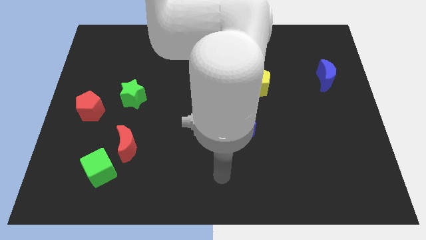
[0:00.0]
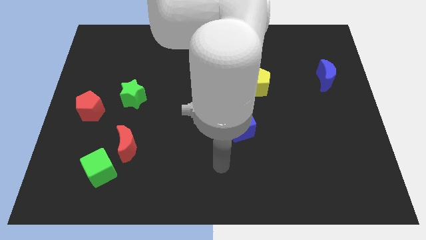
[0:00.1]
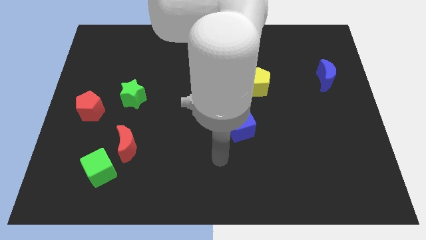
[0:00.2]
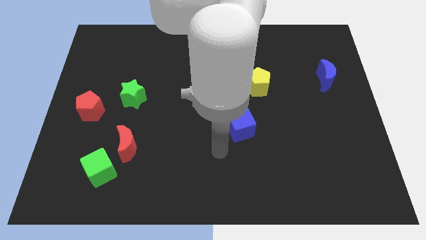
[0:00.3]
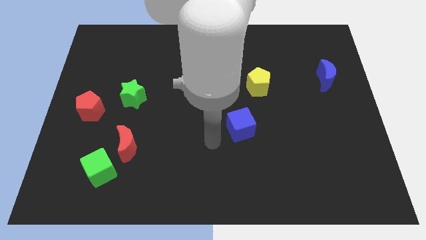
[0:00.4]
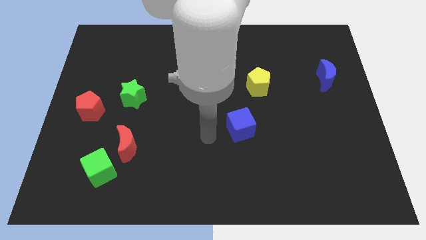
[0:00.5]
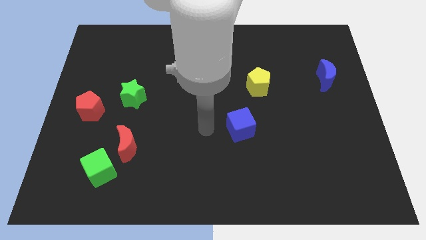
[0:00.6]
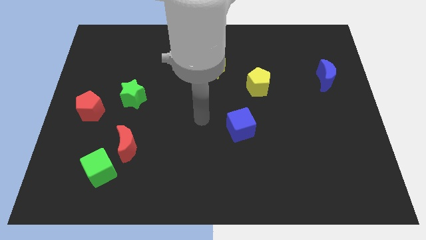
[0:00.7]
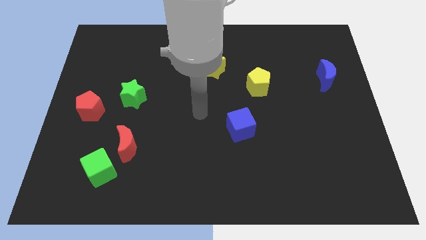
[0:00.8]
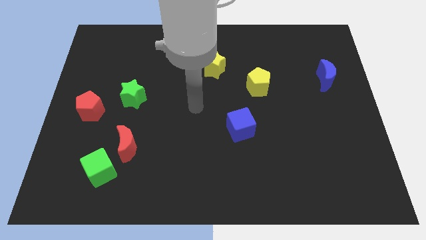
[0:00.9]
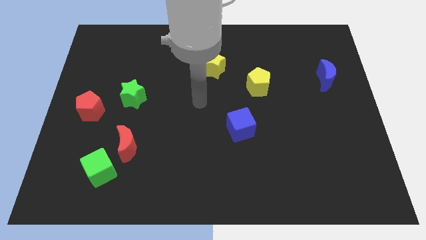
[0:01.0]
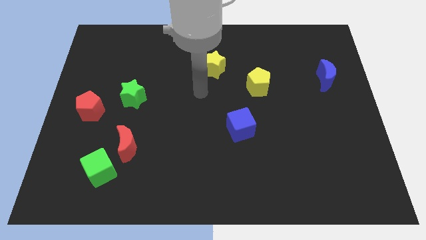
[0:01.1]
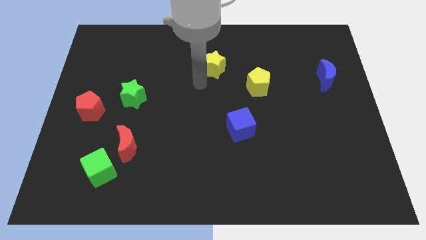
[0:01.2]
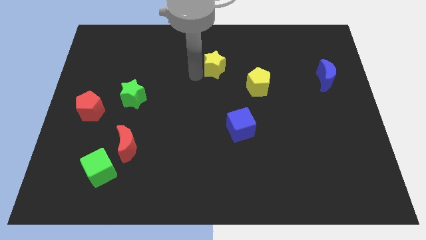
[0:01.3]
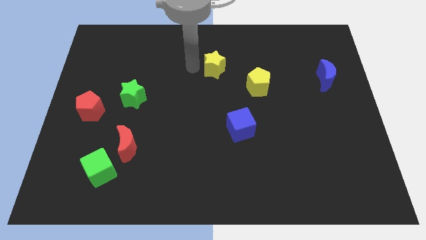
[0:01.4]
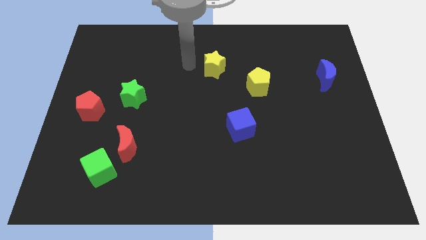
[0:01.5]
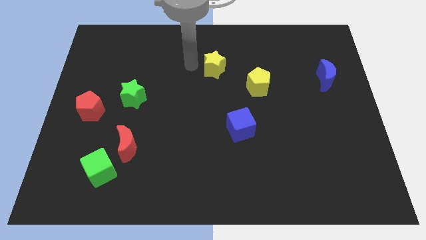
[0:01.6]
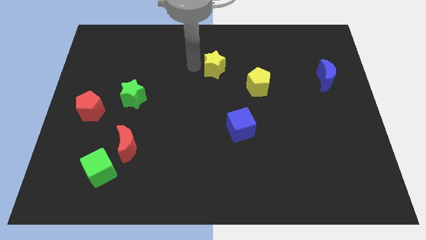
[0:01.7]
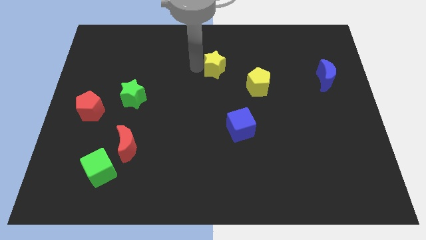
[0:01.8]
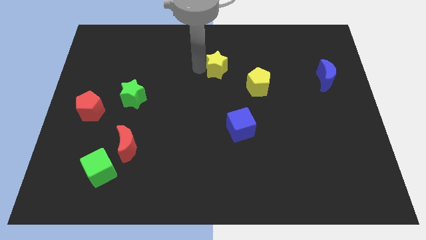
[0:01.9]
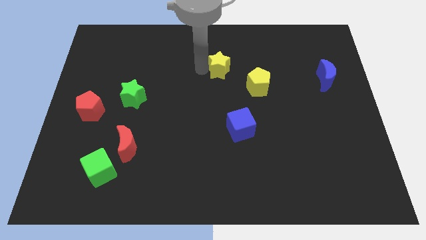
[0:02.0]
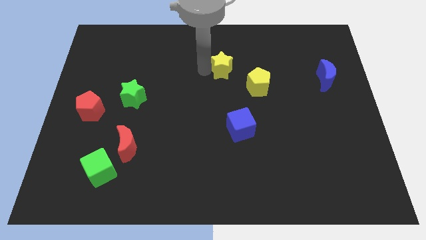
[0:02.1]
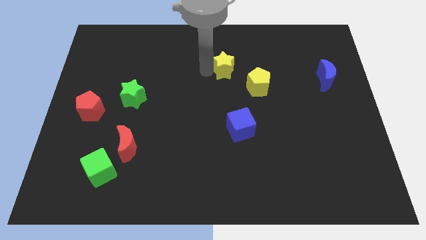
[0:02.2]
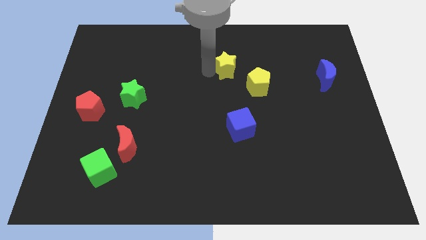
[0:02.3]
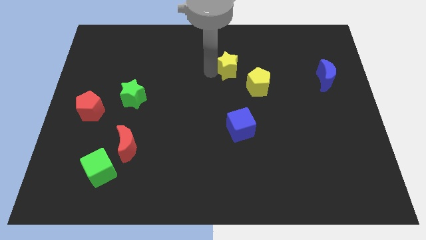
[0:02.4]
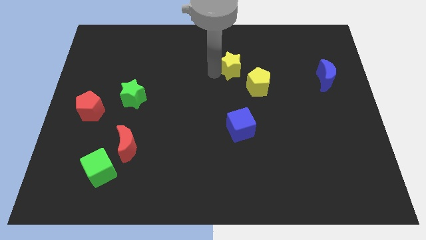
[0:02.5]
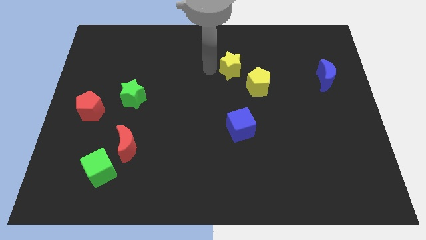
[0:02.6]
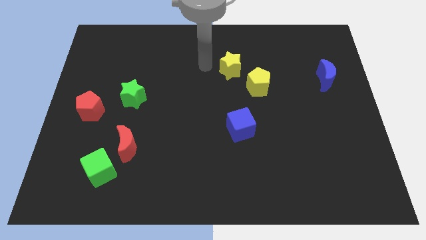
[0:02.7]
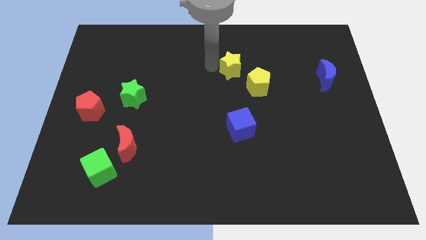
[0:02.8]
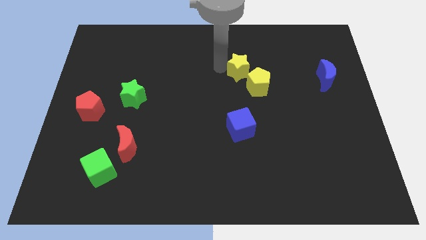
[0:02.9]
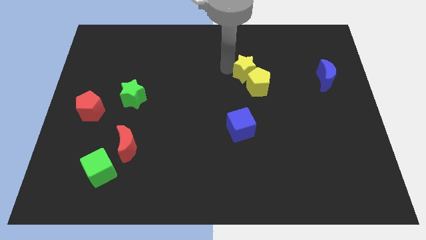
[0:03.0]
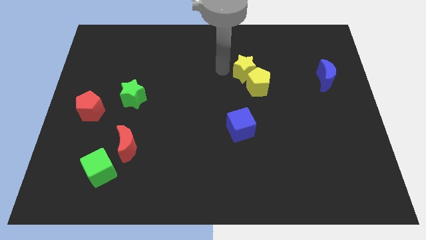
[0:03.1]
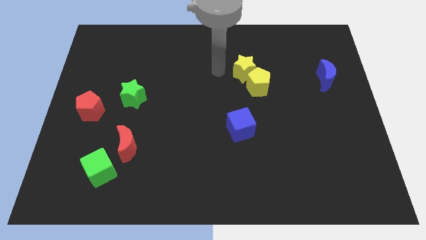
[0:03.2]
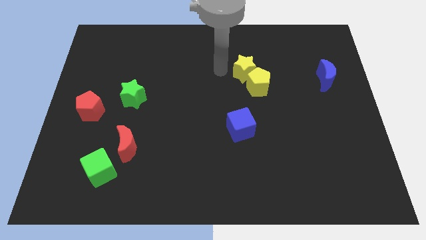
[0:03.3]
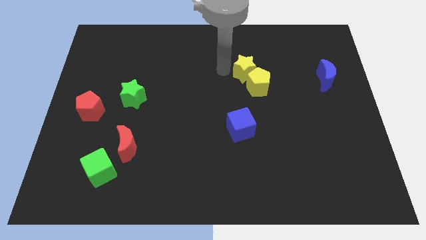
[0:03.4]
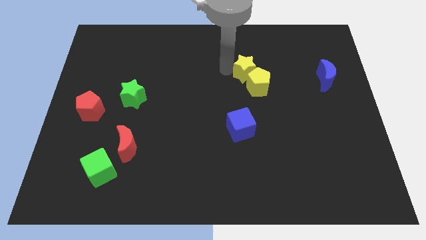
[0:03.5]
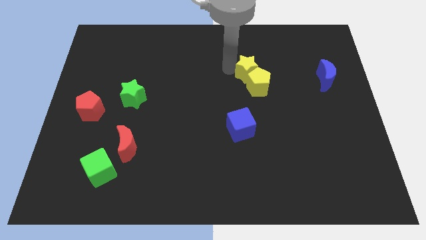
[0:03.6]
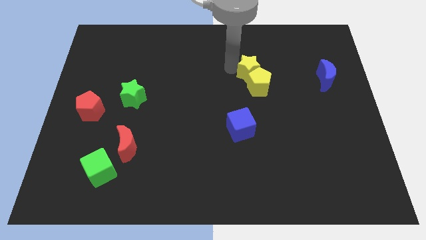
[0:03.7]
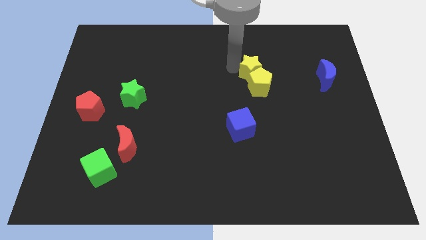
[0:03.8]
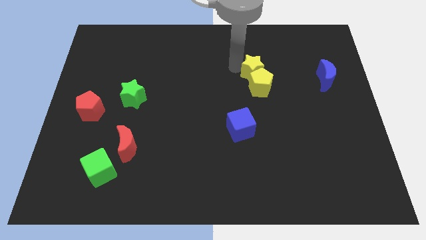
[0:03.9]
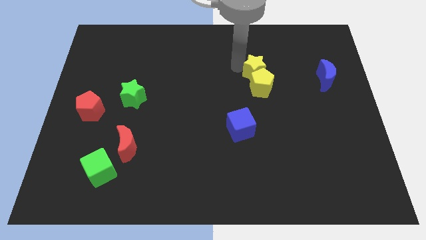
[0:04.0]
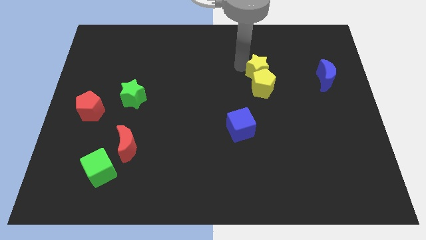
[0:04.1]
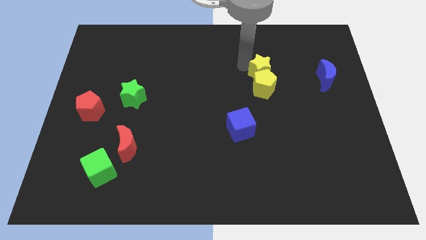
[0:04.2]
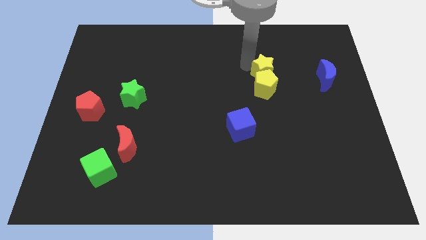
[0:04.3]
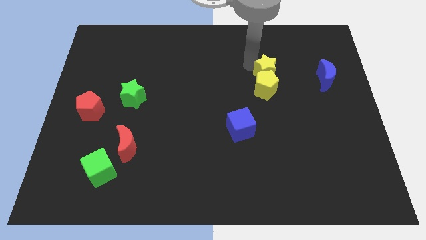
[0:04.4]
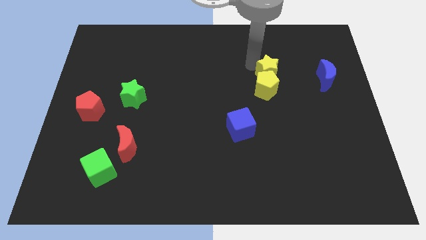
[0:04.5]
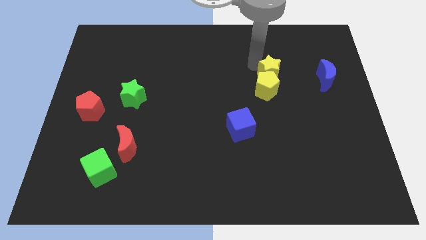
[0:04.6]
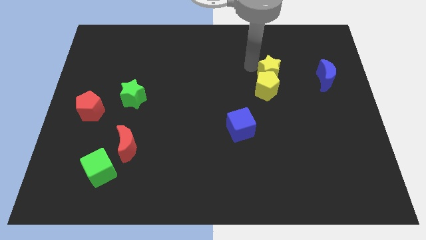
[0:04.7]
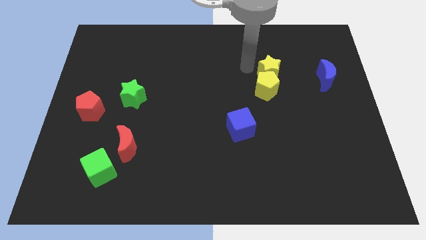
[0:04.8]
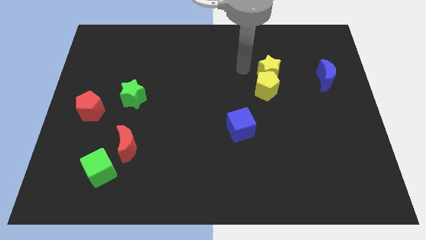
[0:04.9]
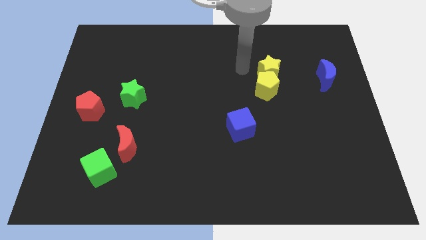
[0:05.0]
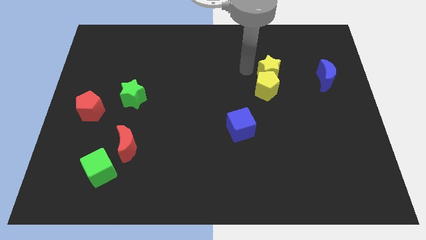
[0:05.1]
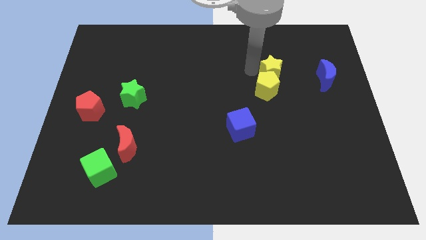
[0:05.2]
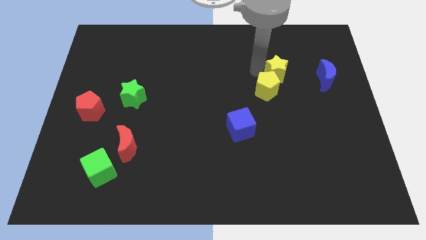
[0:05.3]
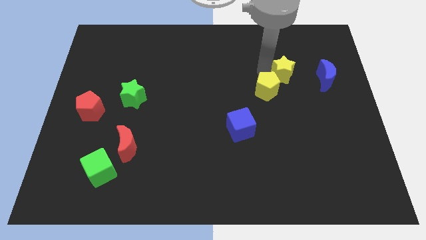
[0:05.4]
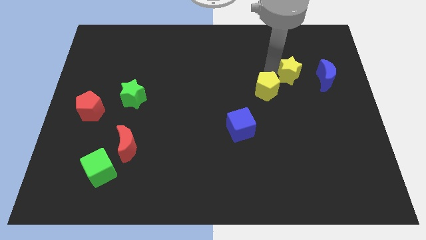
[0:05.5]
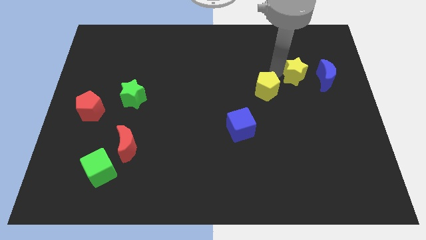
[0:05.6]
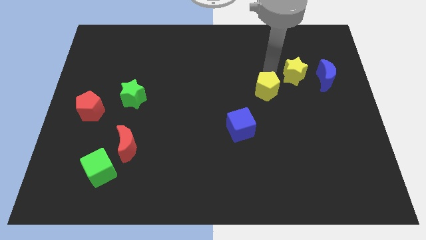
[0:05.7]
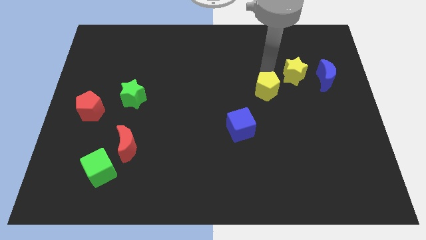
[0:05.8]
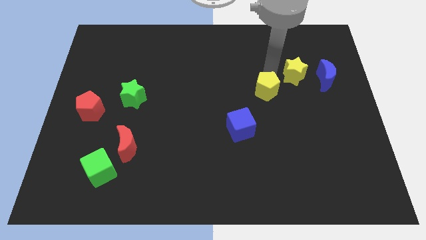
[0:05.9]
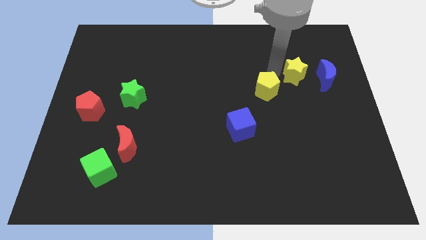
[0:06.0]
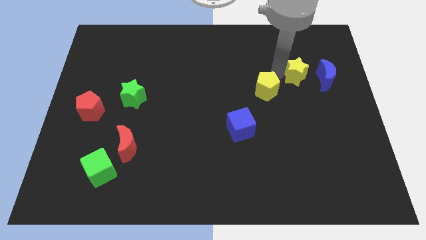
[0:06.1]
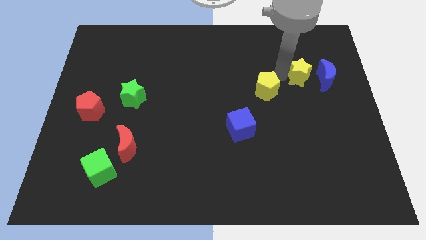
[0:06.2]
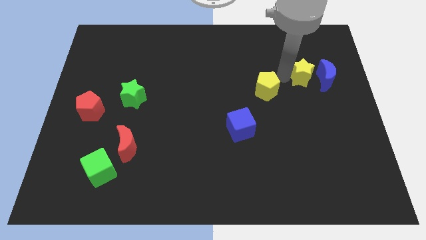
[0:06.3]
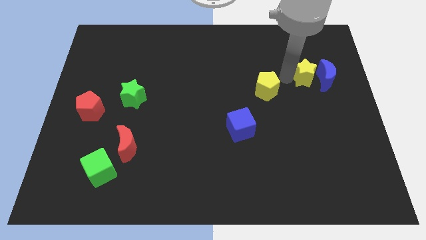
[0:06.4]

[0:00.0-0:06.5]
push the yellow star towards the blue moon
